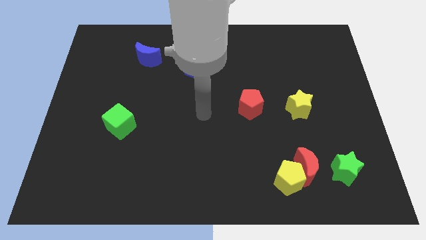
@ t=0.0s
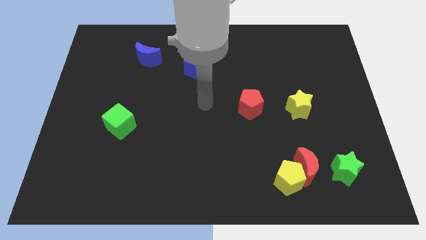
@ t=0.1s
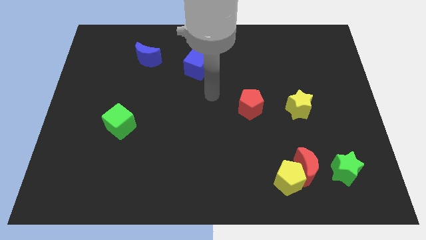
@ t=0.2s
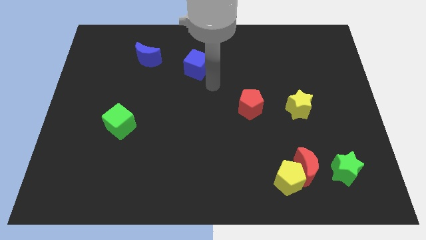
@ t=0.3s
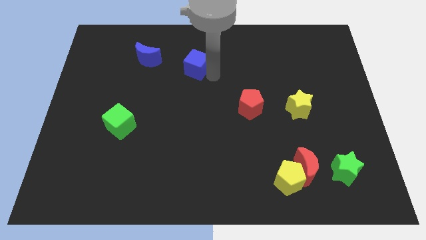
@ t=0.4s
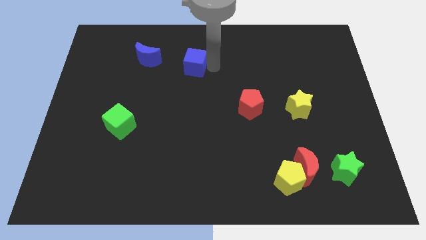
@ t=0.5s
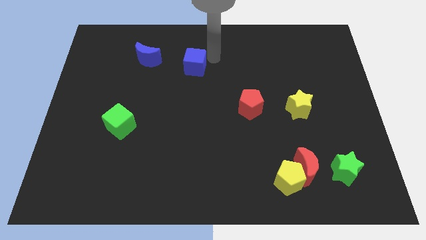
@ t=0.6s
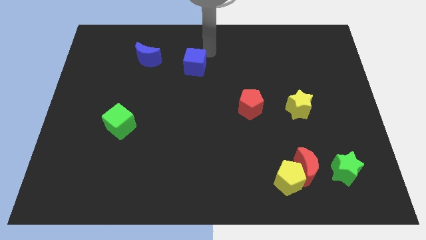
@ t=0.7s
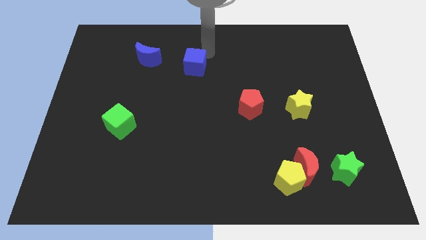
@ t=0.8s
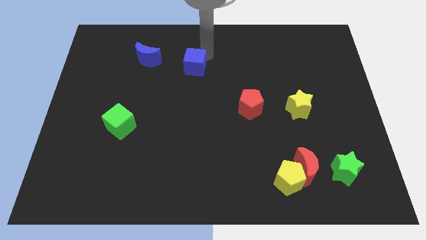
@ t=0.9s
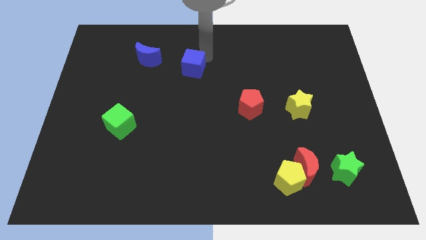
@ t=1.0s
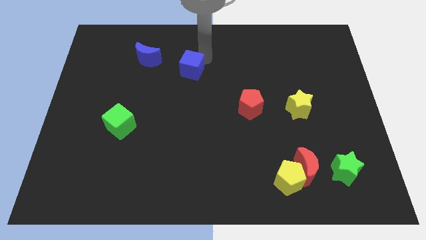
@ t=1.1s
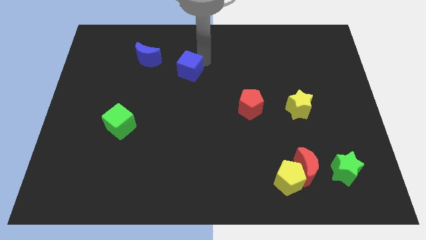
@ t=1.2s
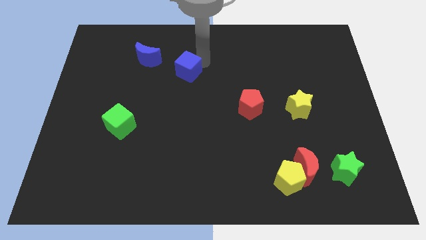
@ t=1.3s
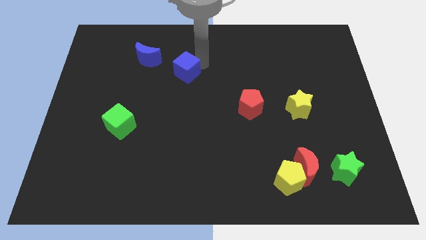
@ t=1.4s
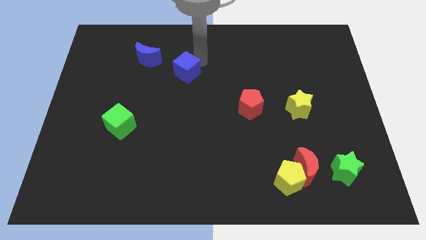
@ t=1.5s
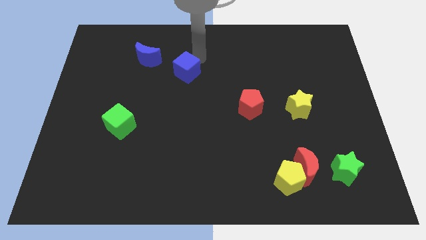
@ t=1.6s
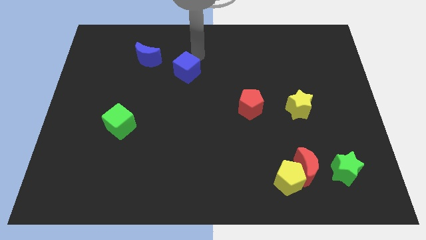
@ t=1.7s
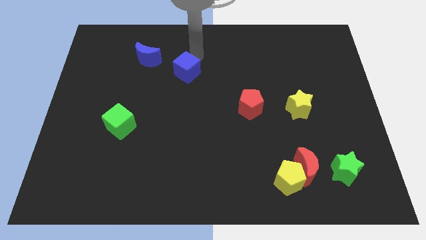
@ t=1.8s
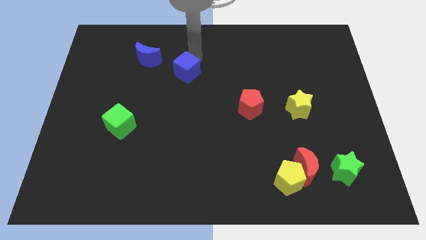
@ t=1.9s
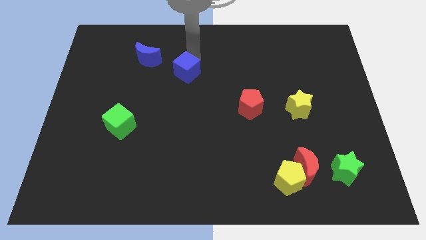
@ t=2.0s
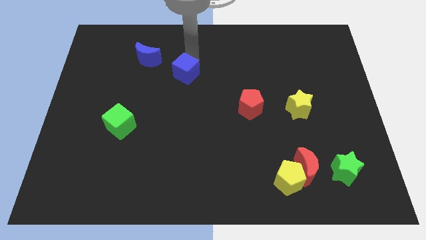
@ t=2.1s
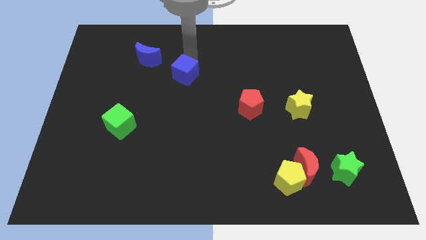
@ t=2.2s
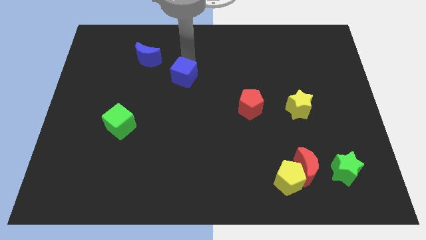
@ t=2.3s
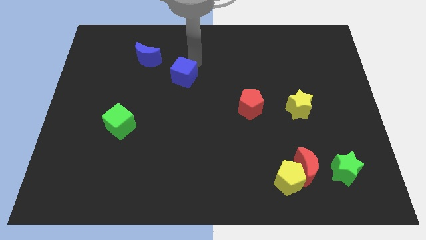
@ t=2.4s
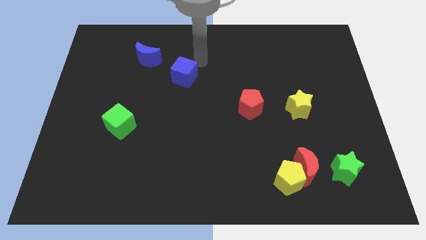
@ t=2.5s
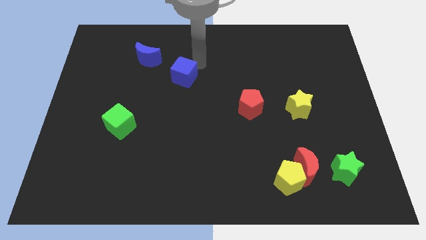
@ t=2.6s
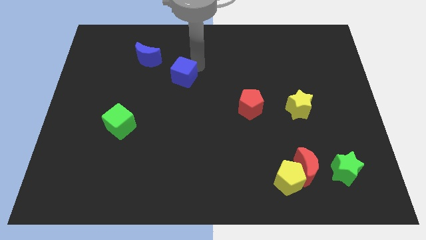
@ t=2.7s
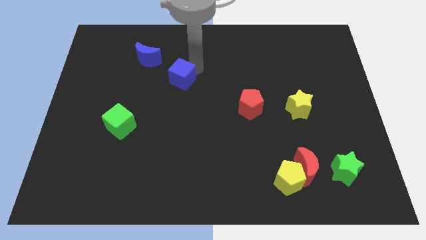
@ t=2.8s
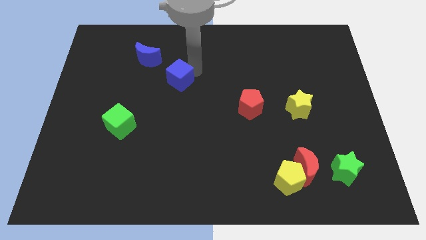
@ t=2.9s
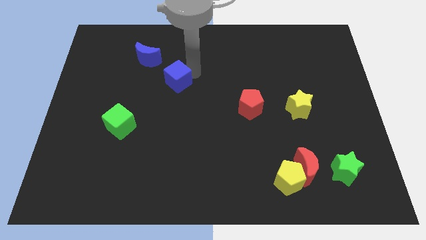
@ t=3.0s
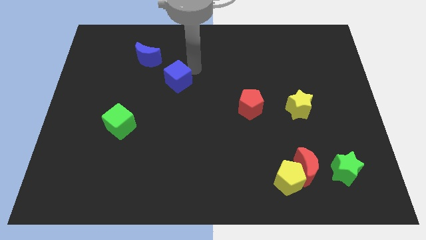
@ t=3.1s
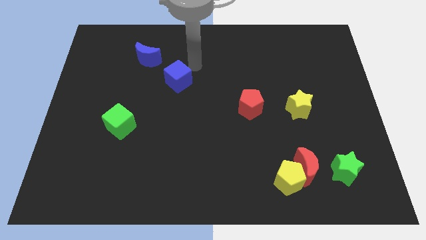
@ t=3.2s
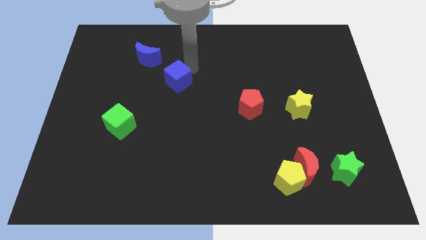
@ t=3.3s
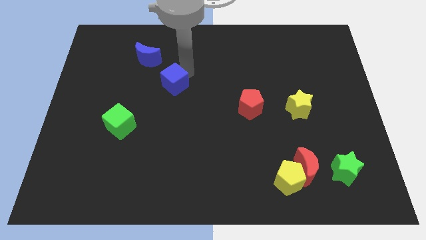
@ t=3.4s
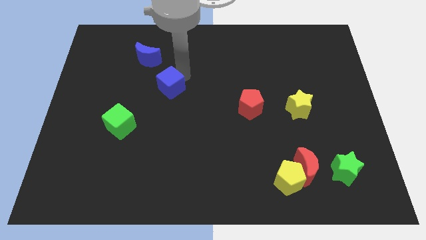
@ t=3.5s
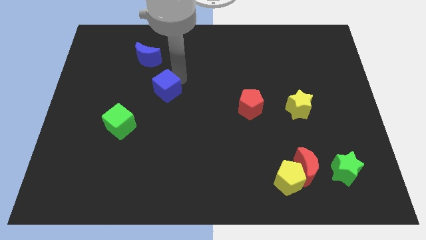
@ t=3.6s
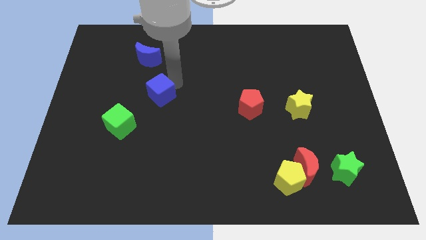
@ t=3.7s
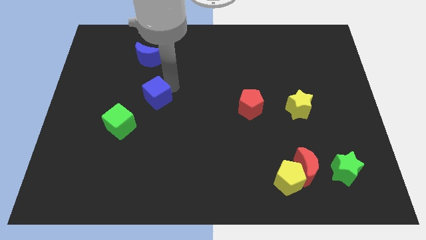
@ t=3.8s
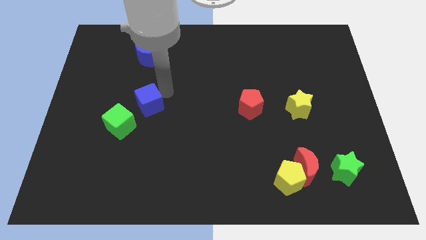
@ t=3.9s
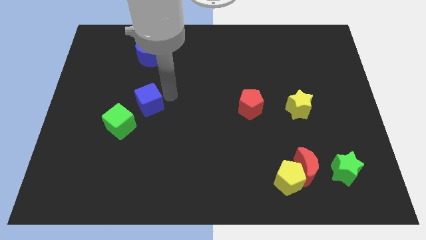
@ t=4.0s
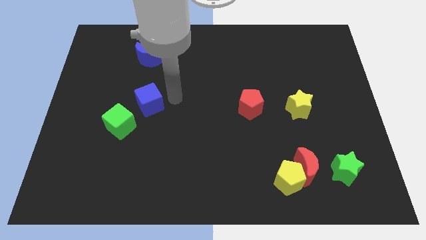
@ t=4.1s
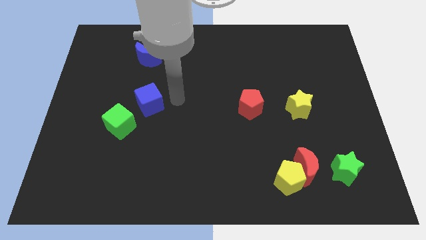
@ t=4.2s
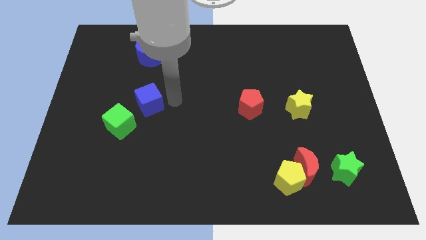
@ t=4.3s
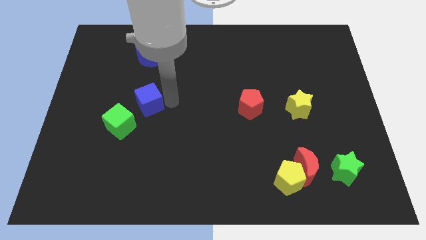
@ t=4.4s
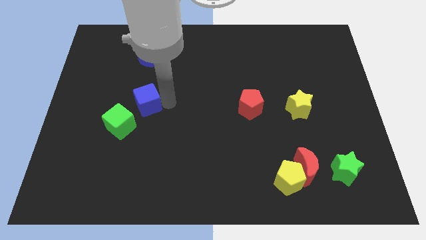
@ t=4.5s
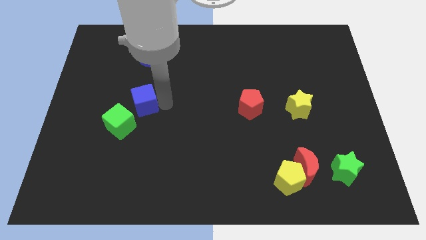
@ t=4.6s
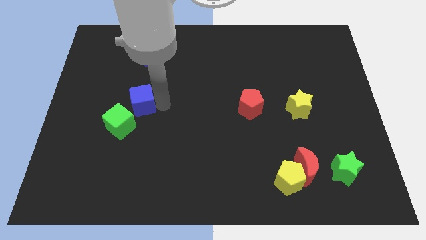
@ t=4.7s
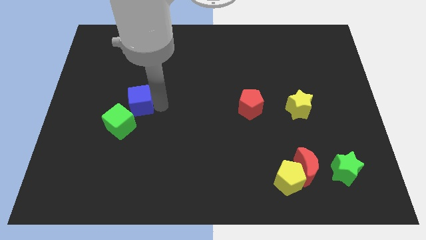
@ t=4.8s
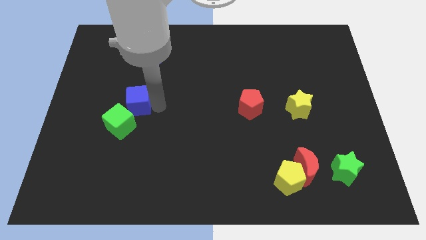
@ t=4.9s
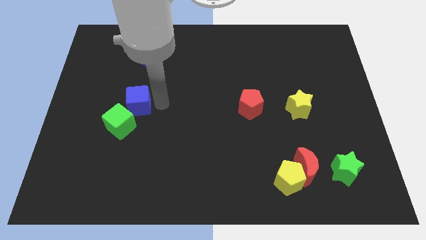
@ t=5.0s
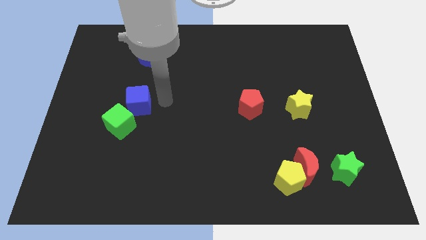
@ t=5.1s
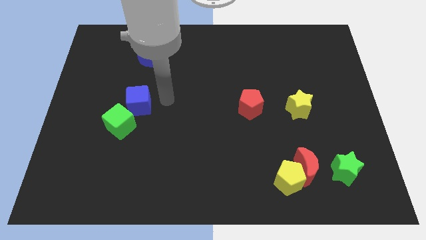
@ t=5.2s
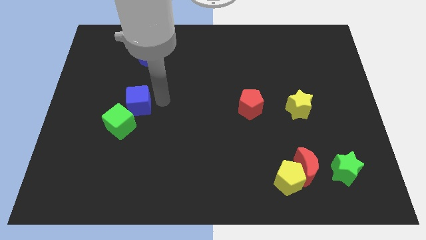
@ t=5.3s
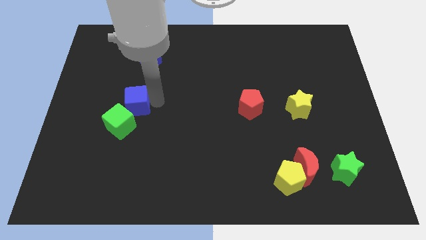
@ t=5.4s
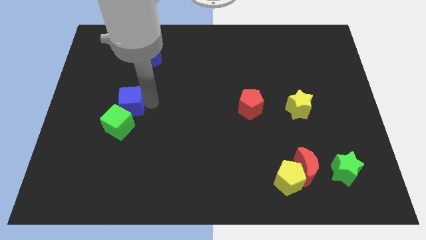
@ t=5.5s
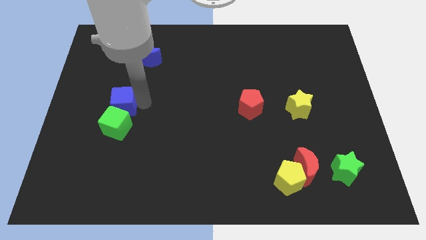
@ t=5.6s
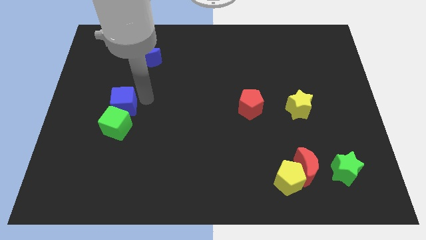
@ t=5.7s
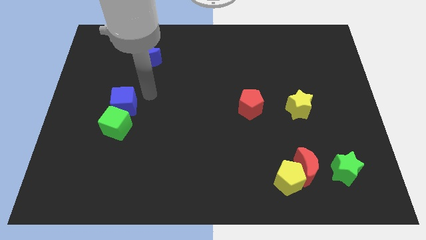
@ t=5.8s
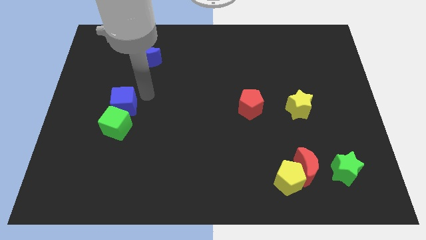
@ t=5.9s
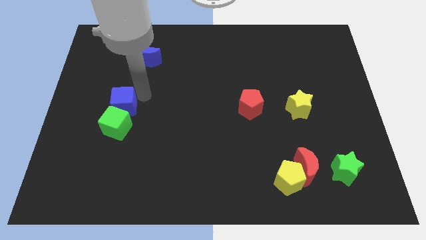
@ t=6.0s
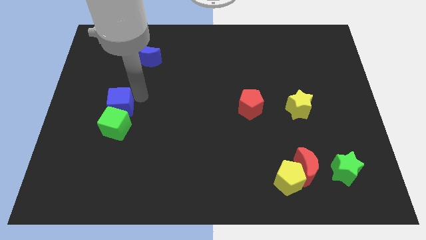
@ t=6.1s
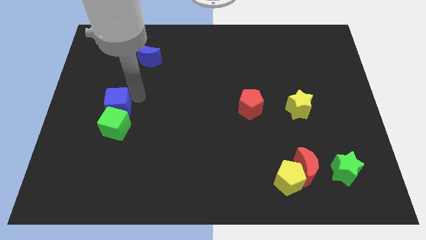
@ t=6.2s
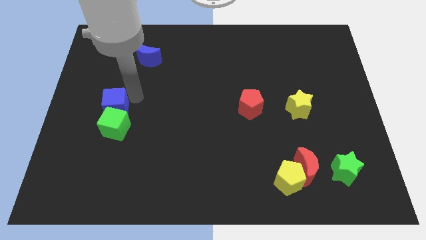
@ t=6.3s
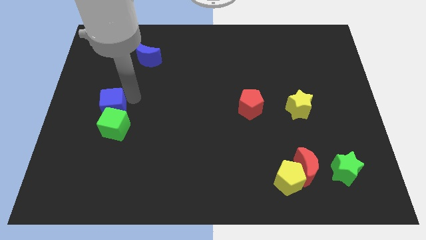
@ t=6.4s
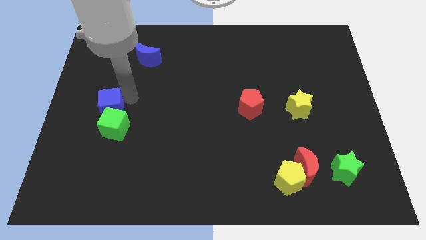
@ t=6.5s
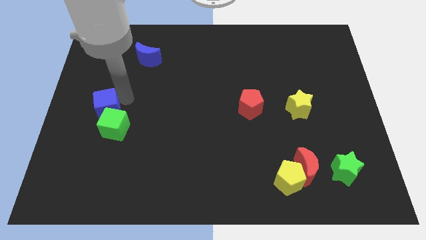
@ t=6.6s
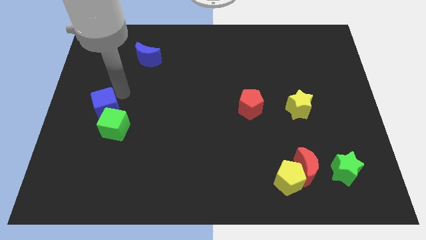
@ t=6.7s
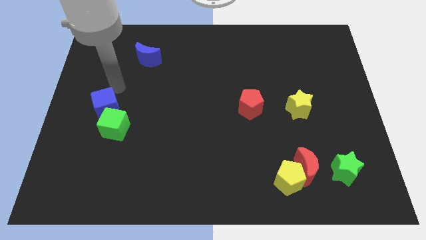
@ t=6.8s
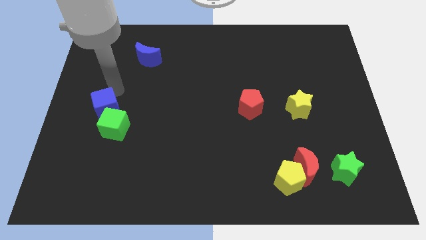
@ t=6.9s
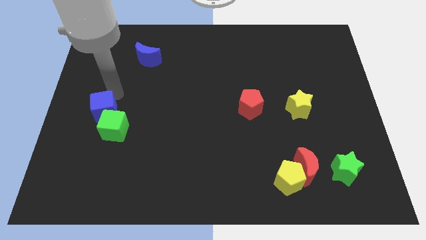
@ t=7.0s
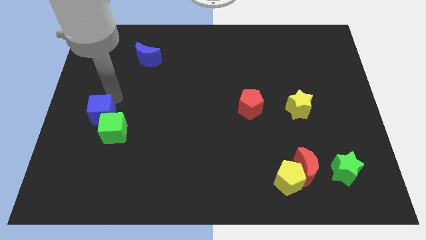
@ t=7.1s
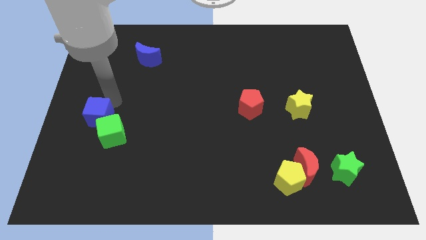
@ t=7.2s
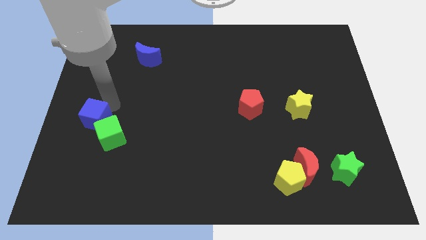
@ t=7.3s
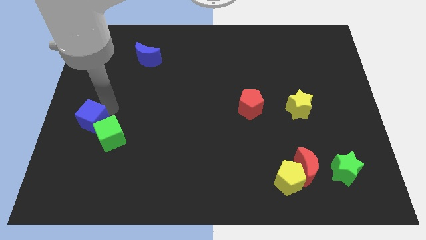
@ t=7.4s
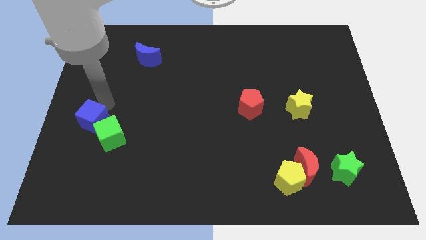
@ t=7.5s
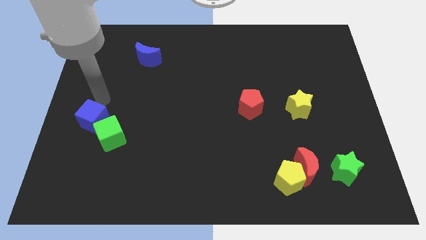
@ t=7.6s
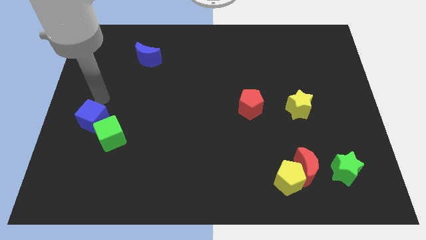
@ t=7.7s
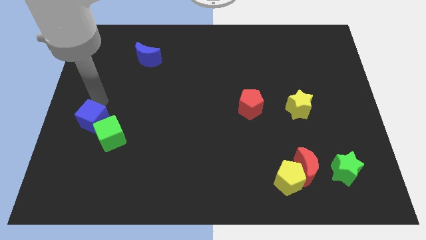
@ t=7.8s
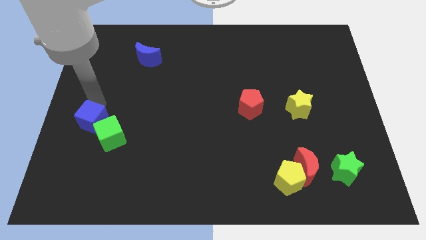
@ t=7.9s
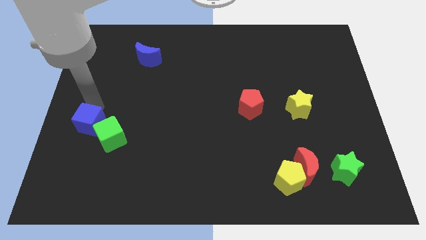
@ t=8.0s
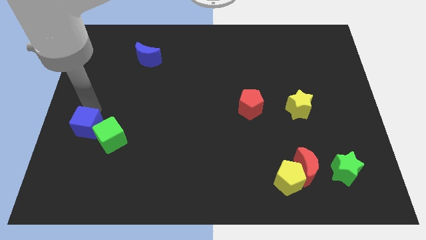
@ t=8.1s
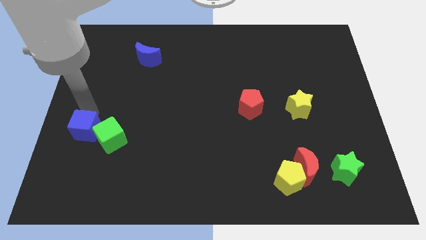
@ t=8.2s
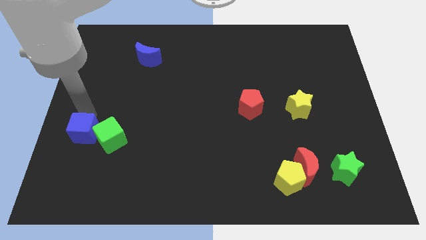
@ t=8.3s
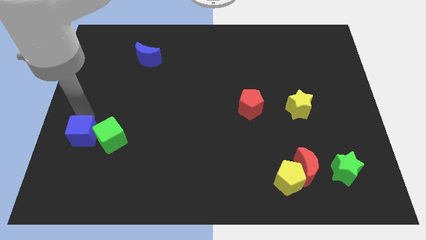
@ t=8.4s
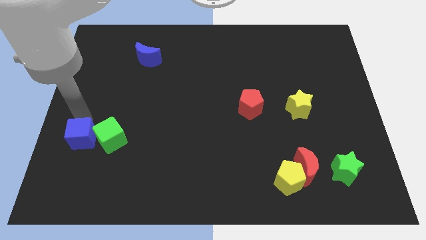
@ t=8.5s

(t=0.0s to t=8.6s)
put the blue cube to the bottom left of the green cube
